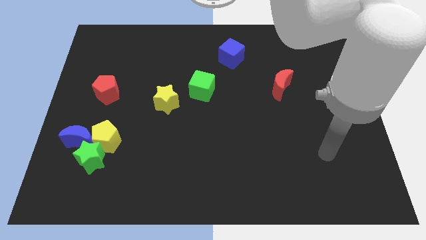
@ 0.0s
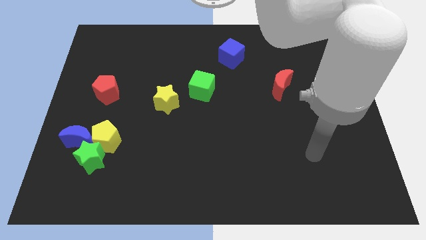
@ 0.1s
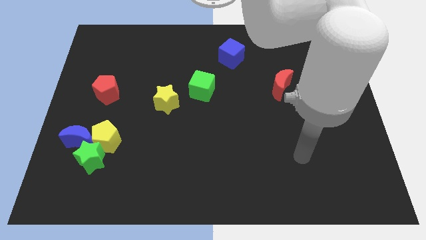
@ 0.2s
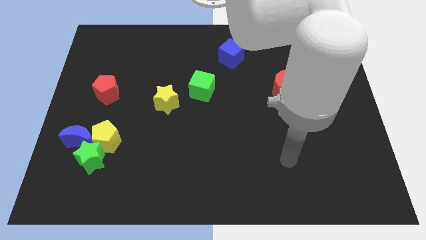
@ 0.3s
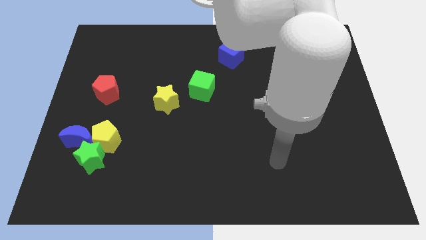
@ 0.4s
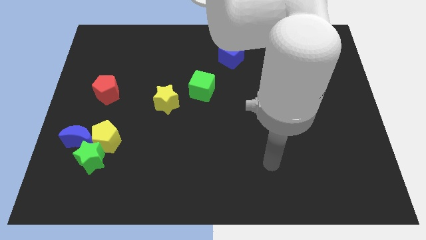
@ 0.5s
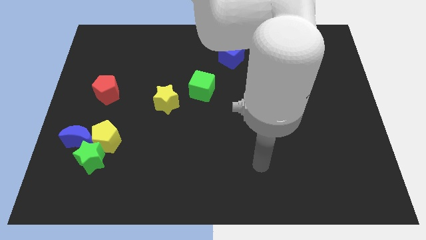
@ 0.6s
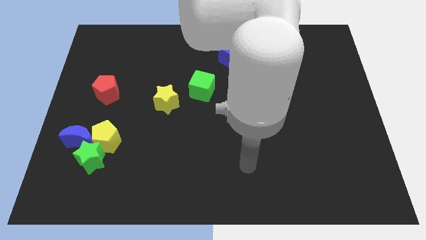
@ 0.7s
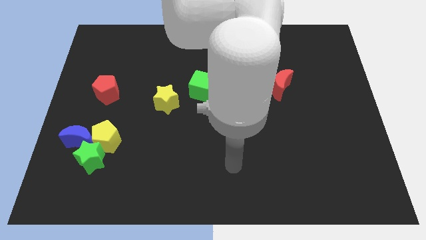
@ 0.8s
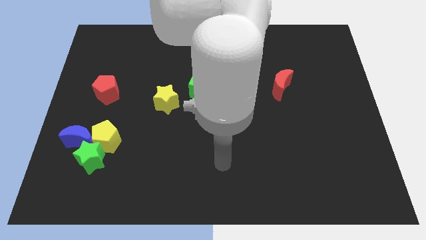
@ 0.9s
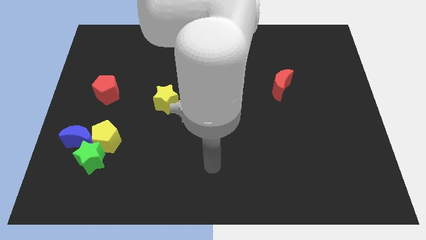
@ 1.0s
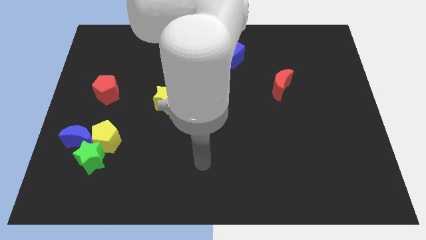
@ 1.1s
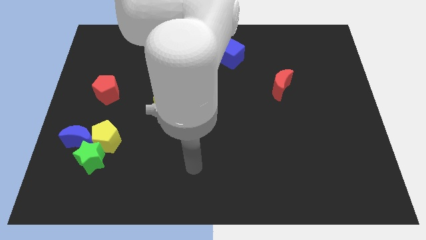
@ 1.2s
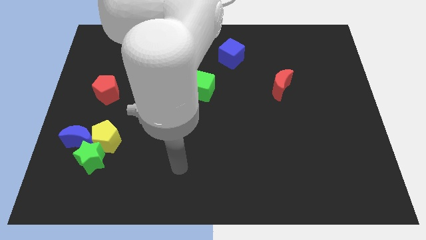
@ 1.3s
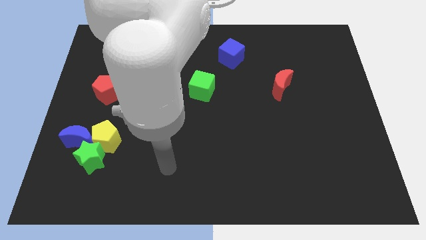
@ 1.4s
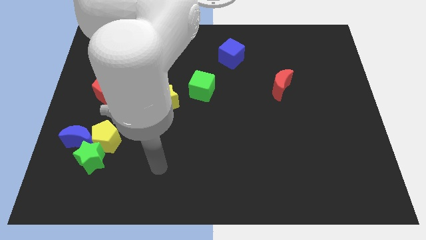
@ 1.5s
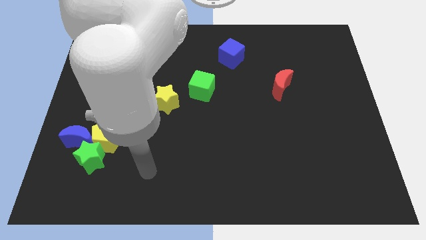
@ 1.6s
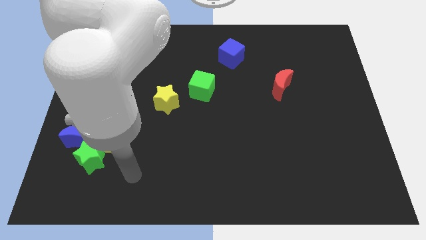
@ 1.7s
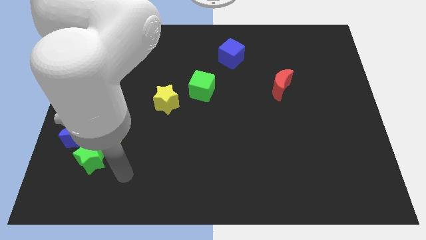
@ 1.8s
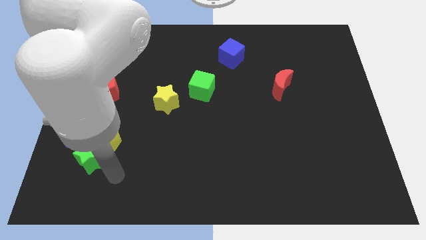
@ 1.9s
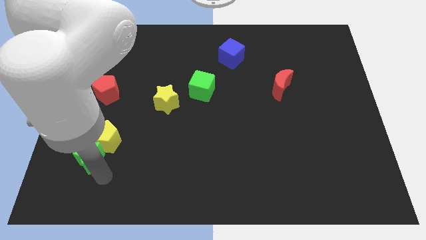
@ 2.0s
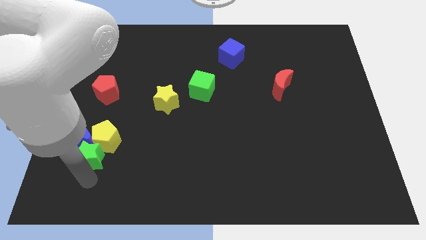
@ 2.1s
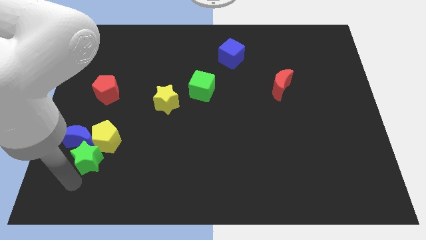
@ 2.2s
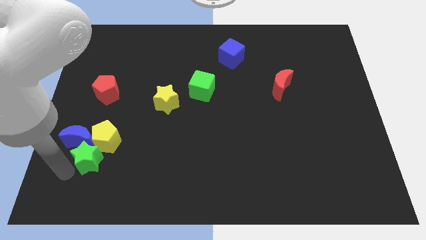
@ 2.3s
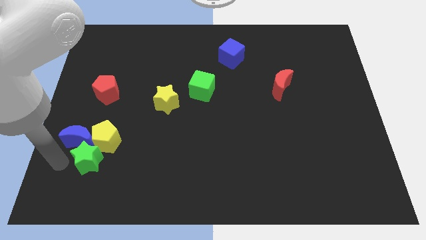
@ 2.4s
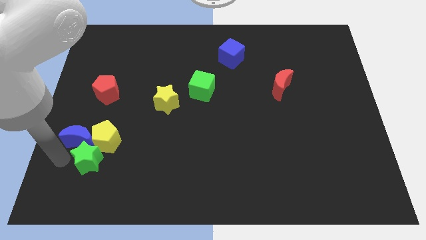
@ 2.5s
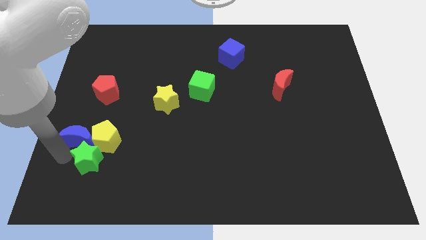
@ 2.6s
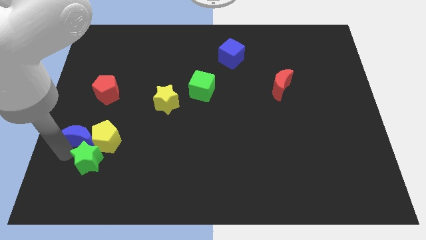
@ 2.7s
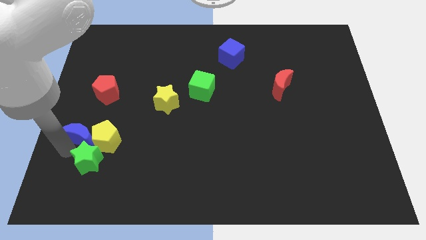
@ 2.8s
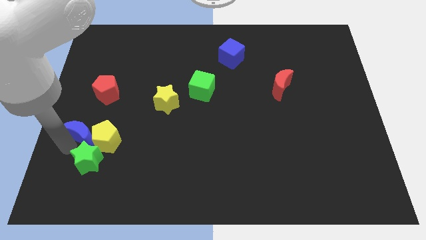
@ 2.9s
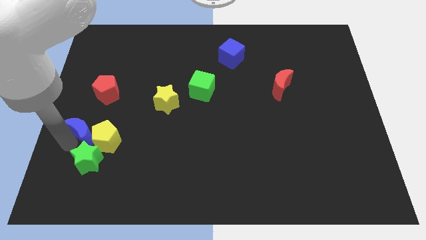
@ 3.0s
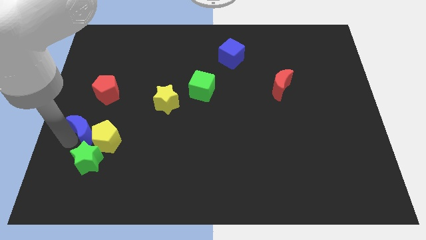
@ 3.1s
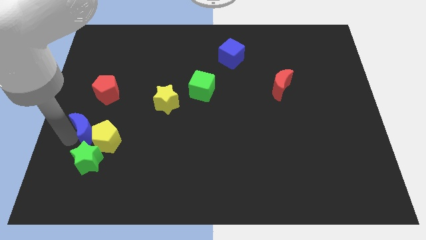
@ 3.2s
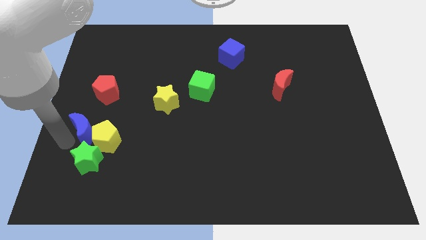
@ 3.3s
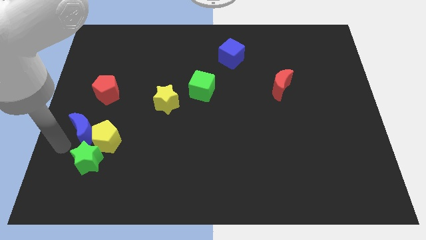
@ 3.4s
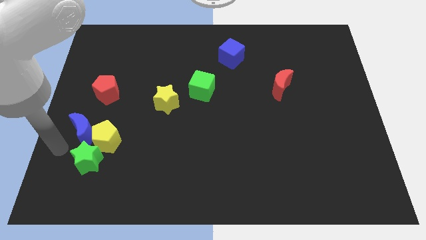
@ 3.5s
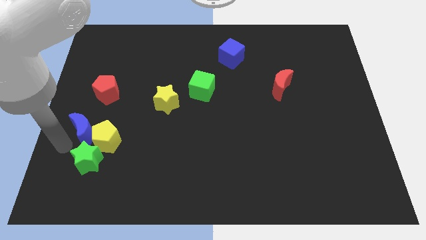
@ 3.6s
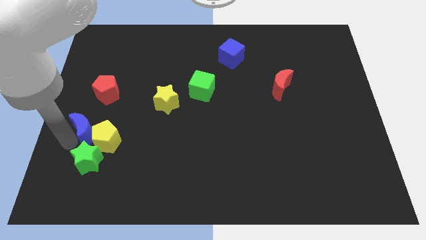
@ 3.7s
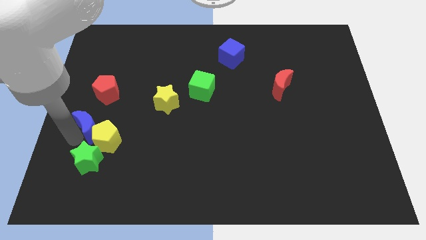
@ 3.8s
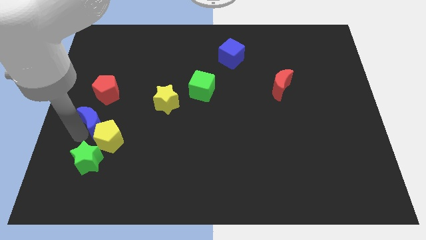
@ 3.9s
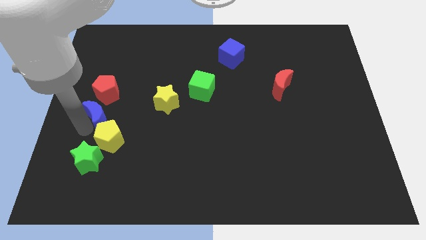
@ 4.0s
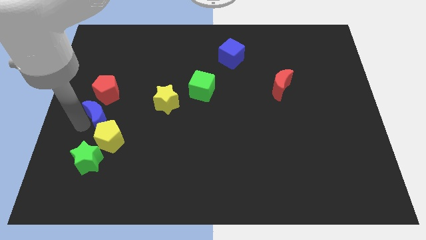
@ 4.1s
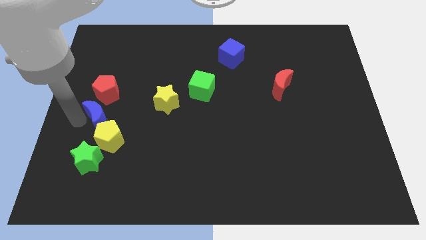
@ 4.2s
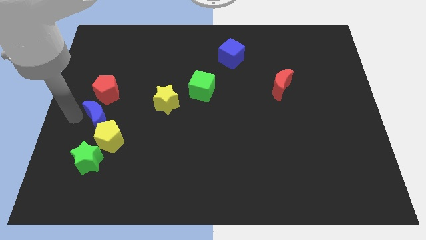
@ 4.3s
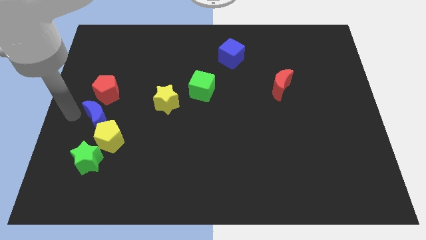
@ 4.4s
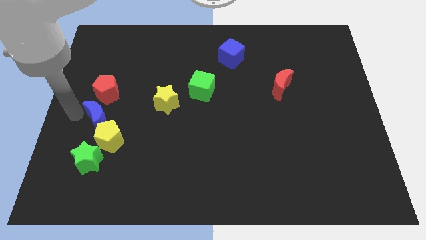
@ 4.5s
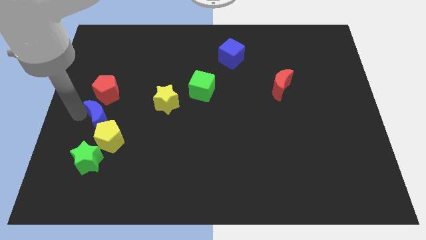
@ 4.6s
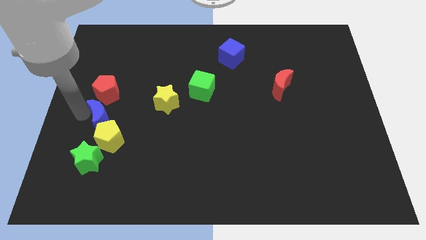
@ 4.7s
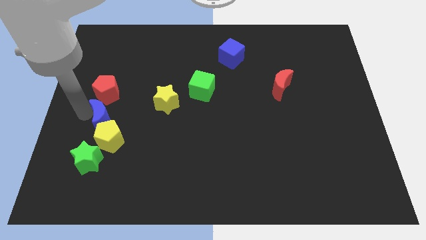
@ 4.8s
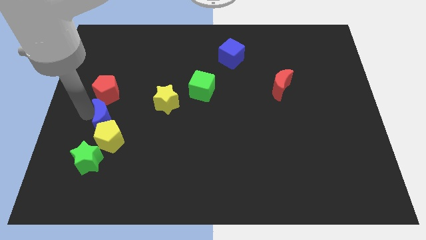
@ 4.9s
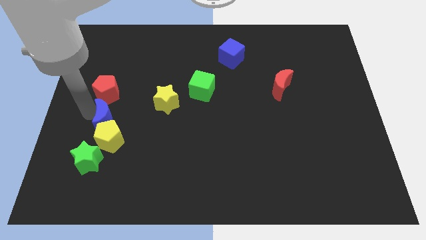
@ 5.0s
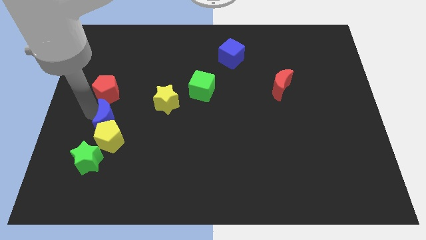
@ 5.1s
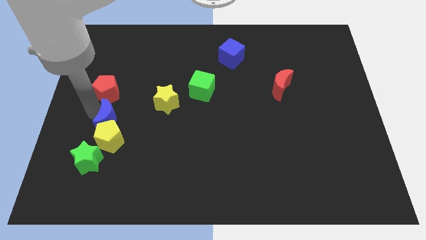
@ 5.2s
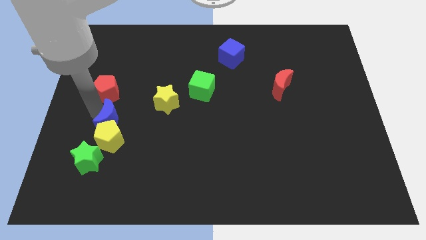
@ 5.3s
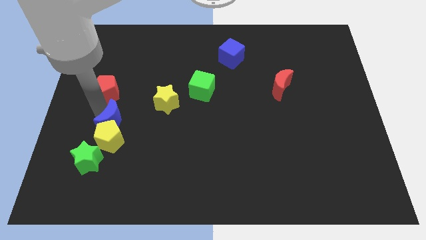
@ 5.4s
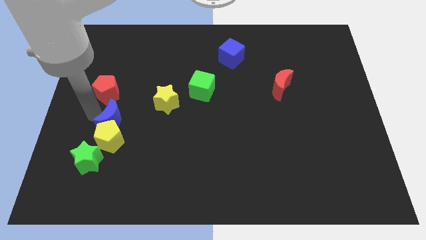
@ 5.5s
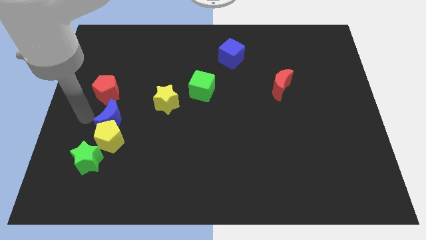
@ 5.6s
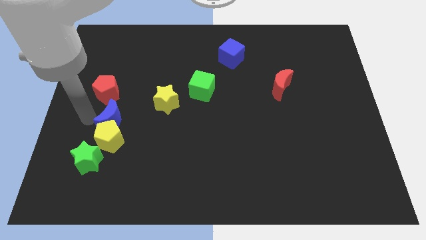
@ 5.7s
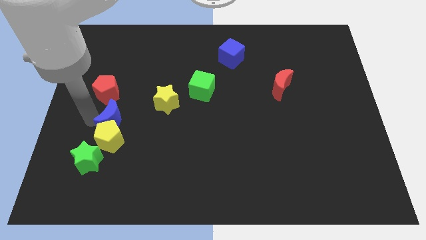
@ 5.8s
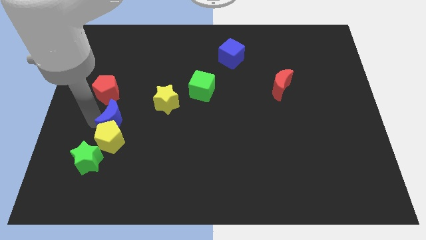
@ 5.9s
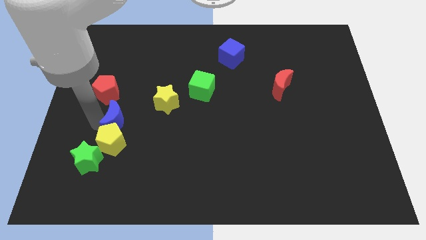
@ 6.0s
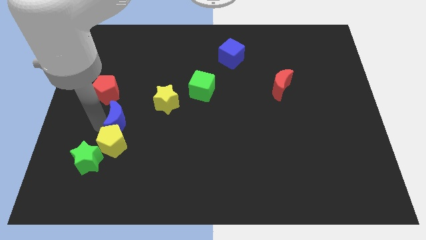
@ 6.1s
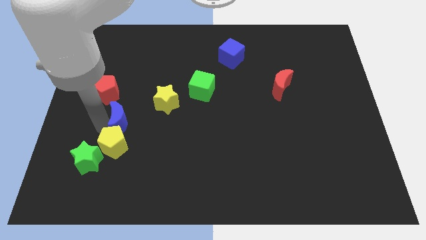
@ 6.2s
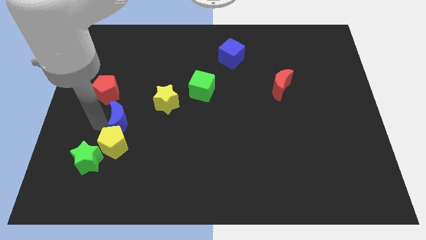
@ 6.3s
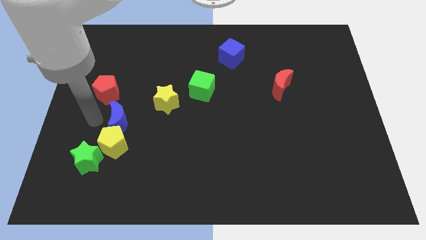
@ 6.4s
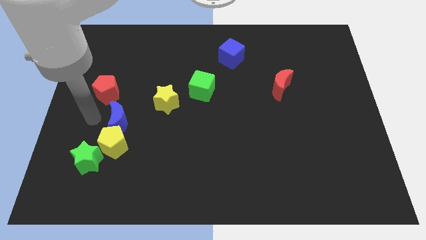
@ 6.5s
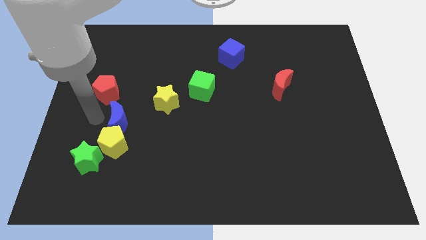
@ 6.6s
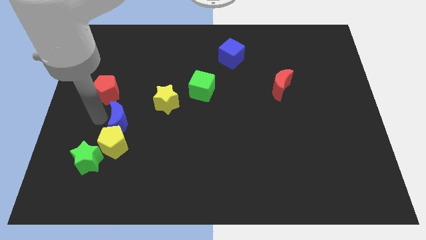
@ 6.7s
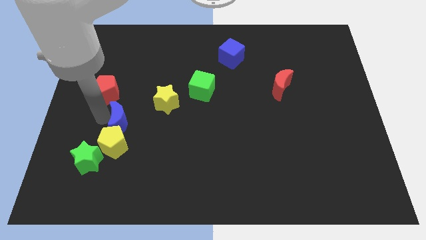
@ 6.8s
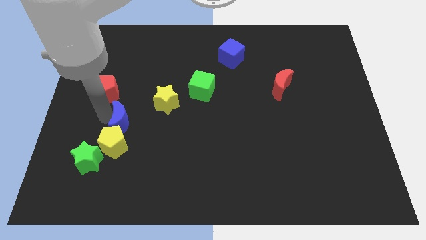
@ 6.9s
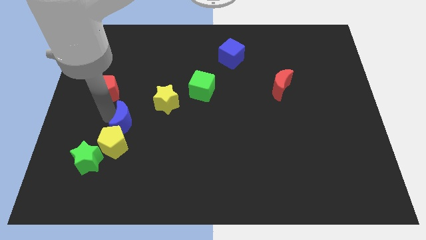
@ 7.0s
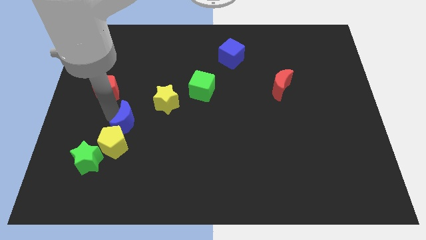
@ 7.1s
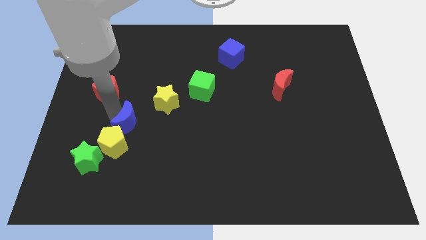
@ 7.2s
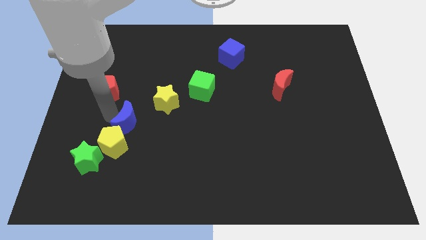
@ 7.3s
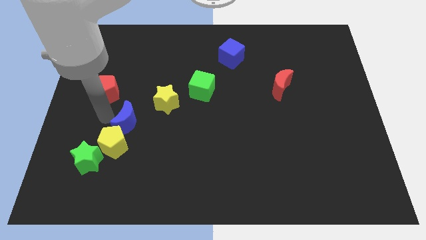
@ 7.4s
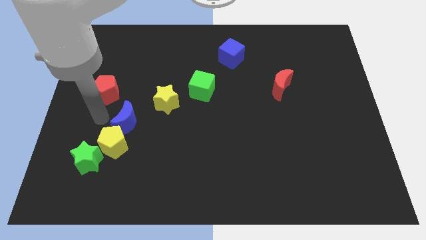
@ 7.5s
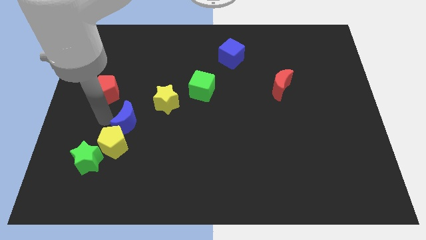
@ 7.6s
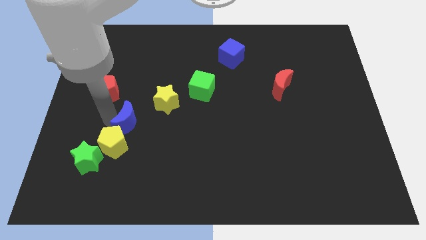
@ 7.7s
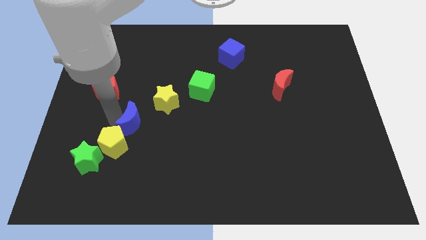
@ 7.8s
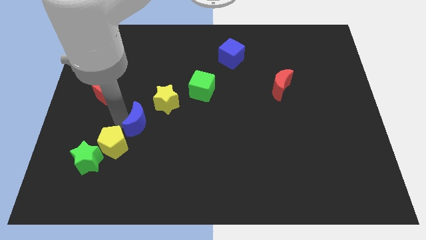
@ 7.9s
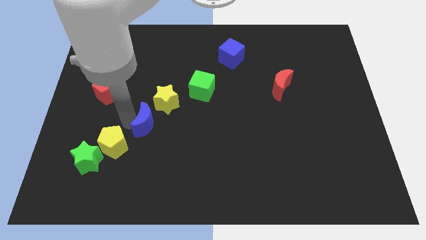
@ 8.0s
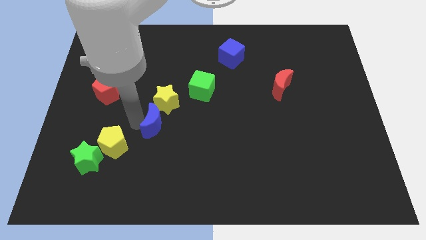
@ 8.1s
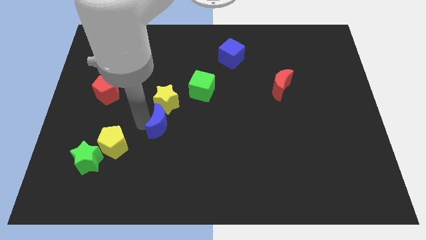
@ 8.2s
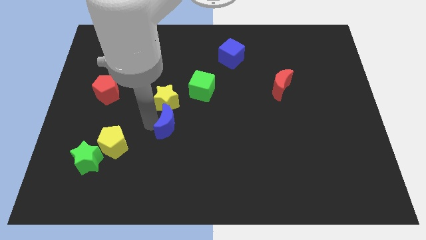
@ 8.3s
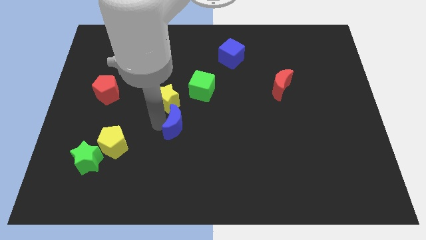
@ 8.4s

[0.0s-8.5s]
move the blue moon to the right
